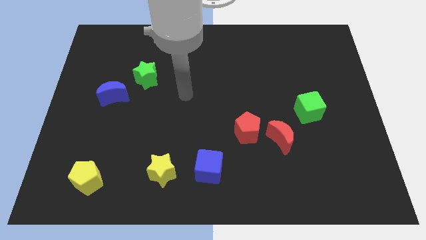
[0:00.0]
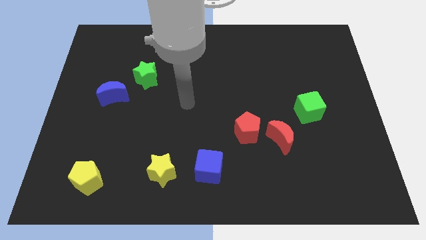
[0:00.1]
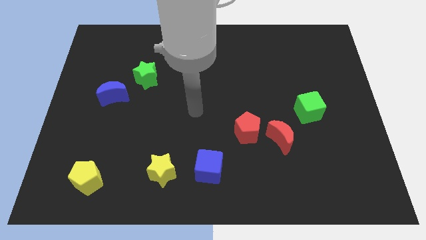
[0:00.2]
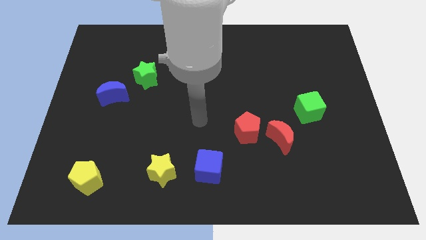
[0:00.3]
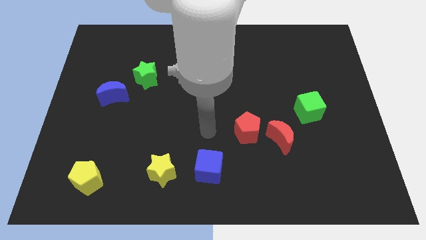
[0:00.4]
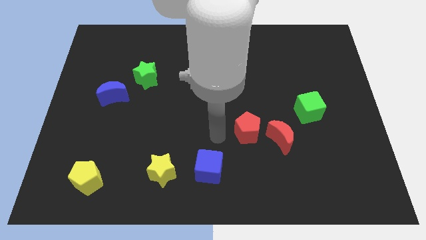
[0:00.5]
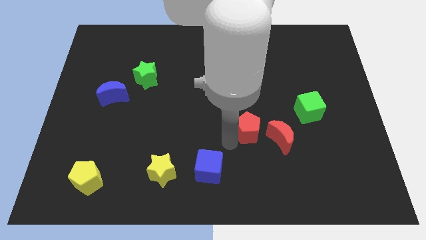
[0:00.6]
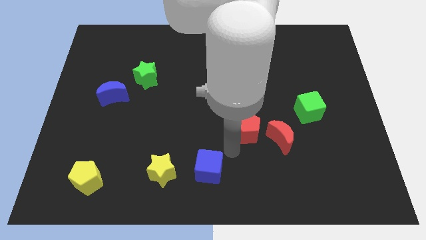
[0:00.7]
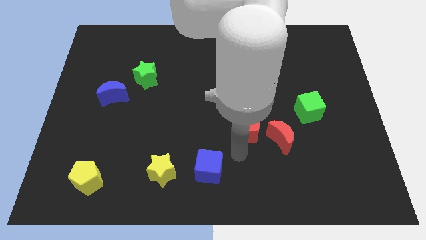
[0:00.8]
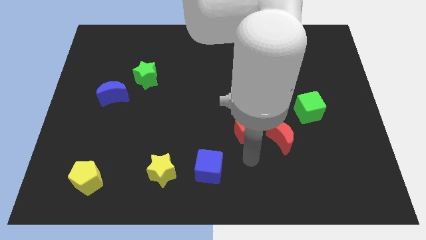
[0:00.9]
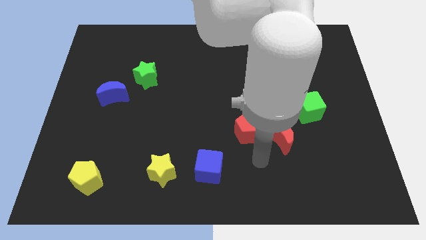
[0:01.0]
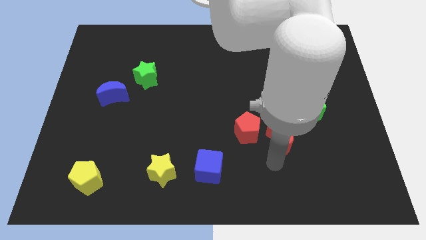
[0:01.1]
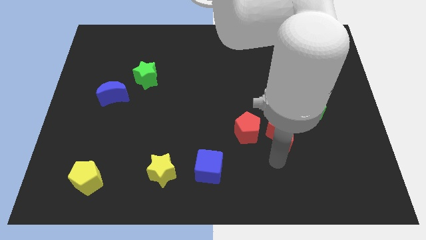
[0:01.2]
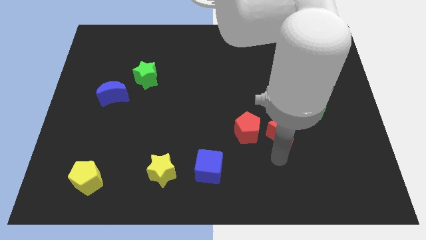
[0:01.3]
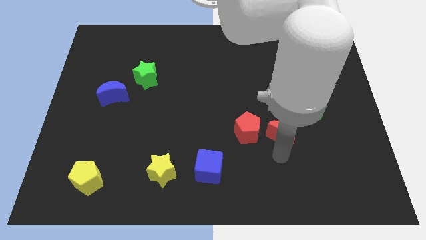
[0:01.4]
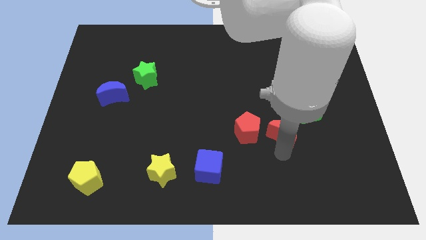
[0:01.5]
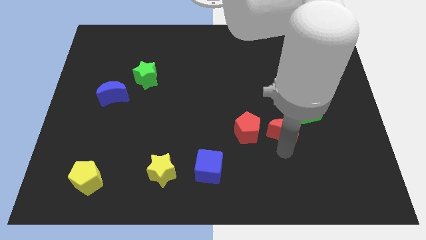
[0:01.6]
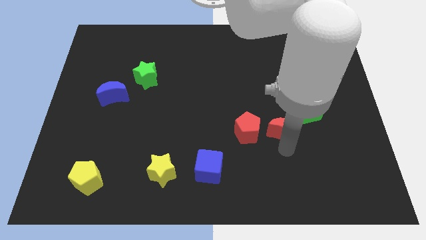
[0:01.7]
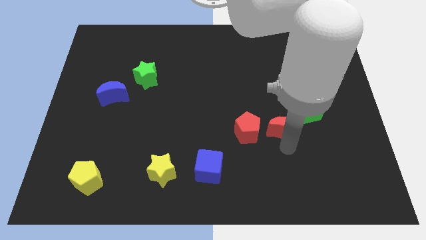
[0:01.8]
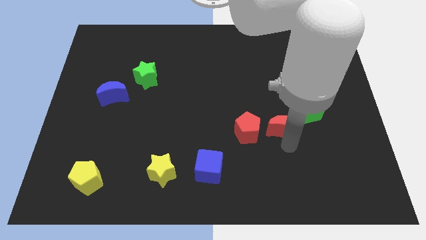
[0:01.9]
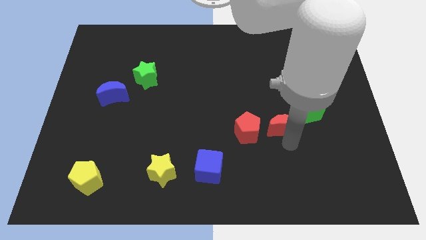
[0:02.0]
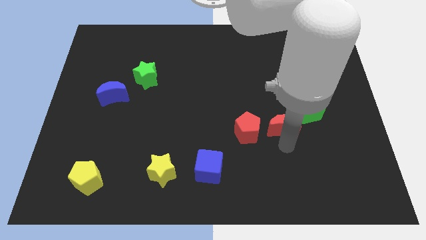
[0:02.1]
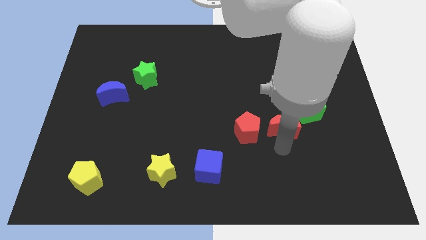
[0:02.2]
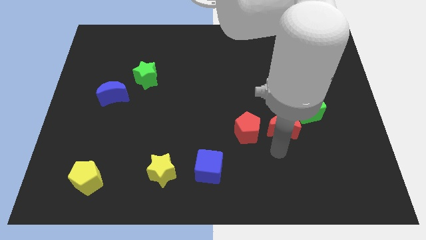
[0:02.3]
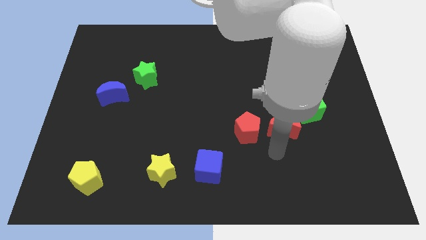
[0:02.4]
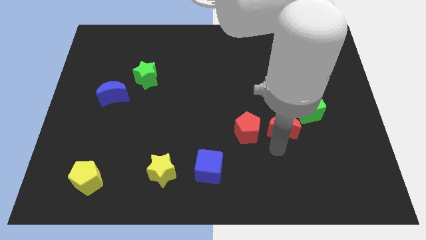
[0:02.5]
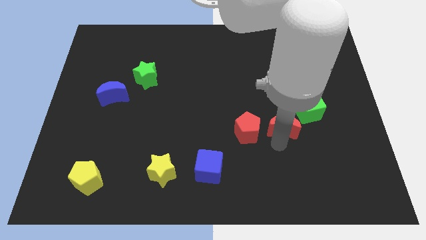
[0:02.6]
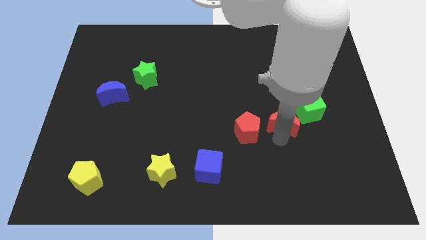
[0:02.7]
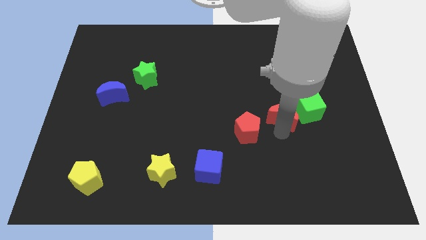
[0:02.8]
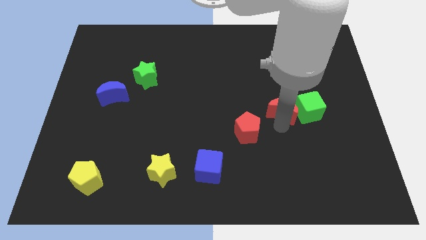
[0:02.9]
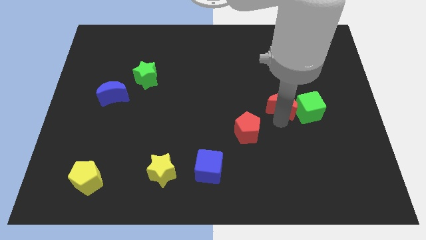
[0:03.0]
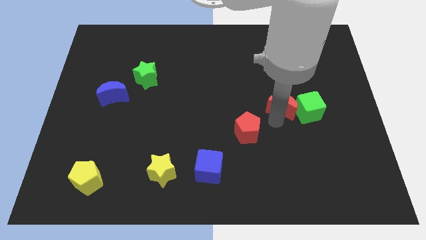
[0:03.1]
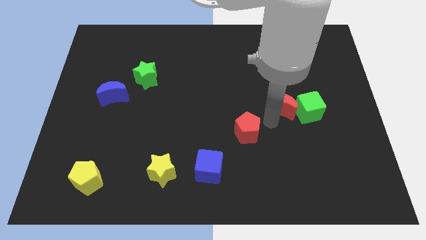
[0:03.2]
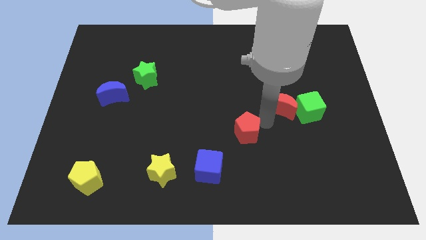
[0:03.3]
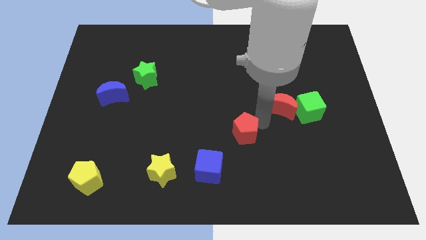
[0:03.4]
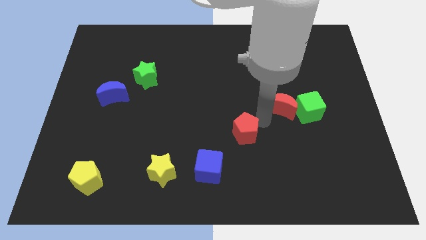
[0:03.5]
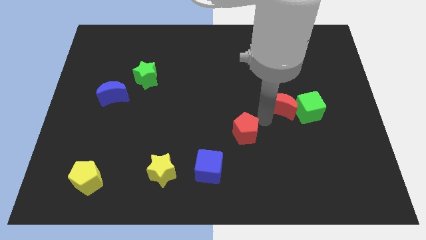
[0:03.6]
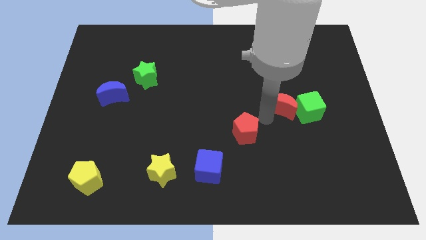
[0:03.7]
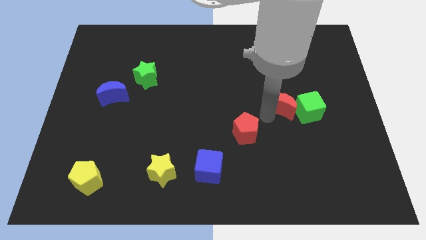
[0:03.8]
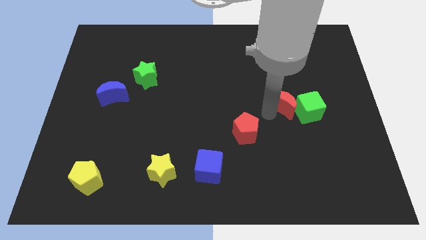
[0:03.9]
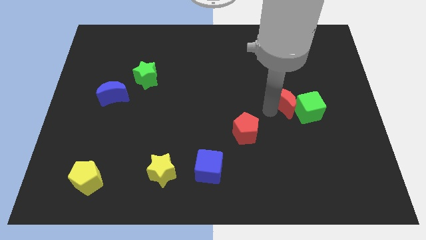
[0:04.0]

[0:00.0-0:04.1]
slightly move the red moon upwards and then to the right

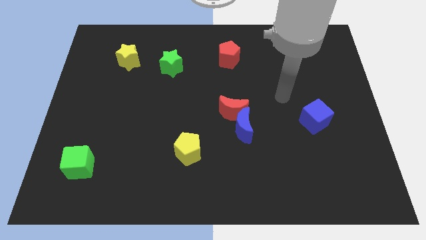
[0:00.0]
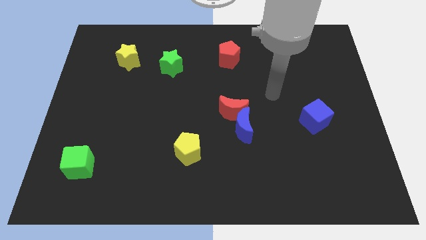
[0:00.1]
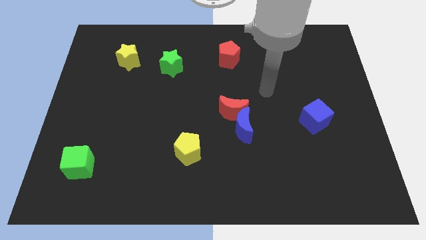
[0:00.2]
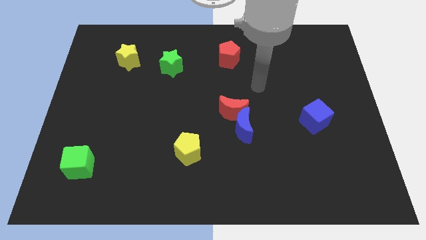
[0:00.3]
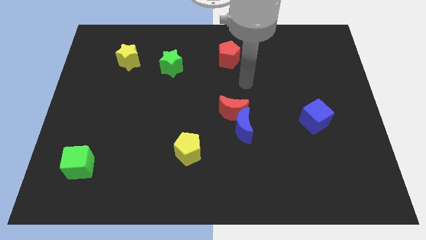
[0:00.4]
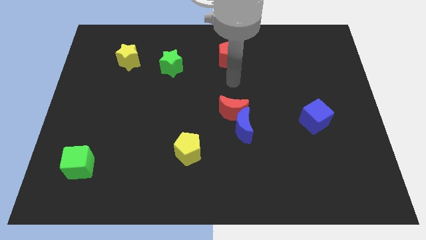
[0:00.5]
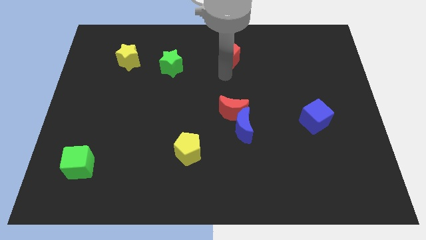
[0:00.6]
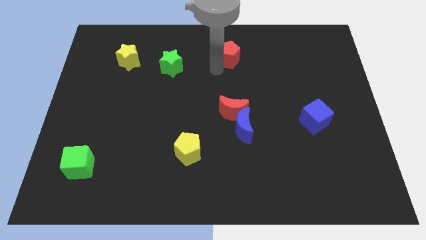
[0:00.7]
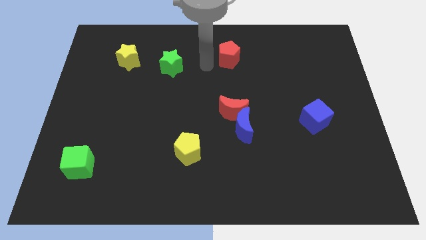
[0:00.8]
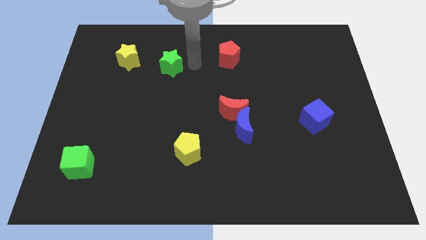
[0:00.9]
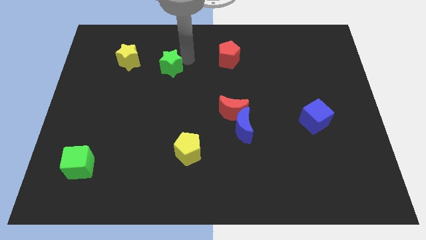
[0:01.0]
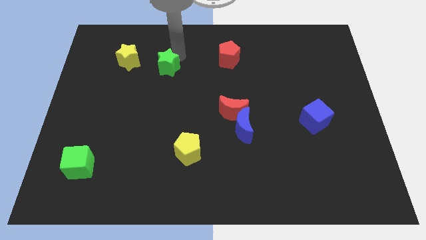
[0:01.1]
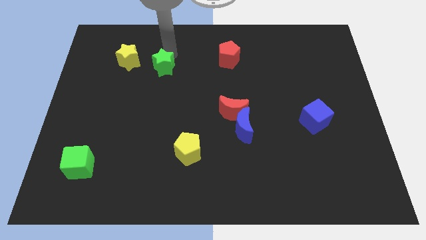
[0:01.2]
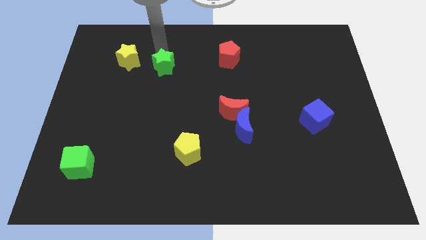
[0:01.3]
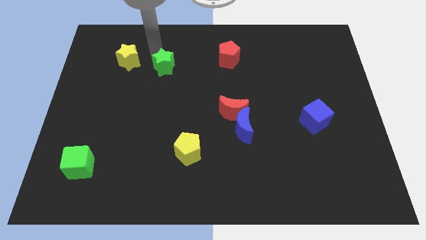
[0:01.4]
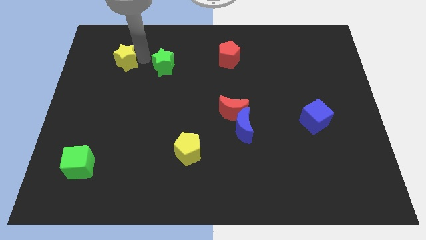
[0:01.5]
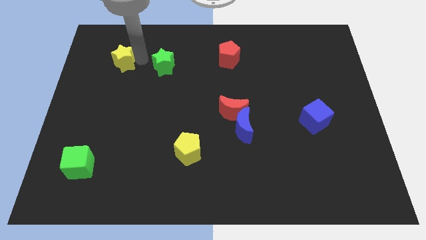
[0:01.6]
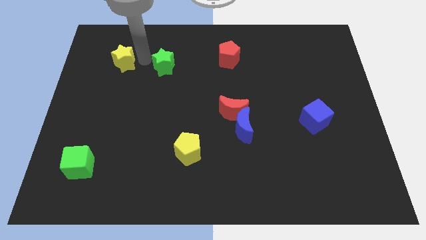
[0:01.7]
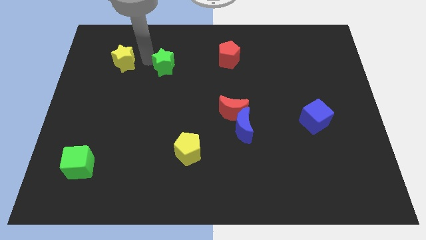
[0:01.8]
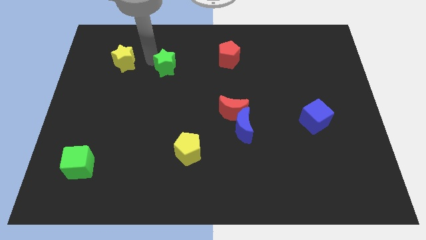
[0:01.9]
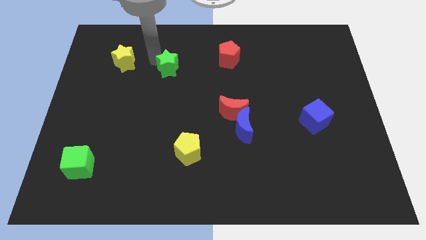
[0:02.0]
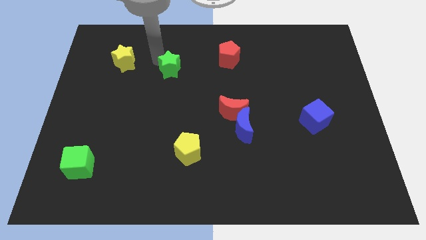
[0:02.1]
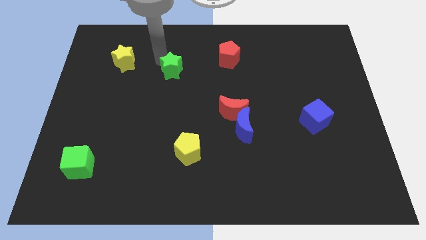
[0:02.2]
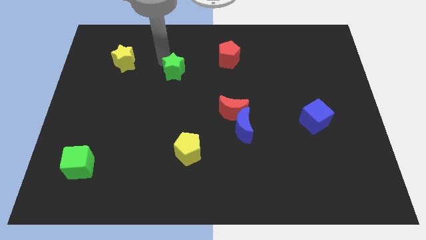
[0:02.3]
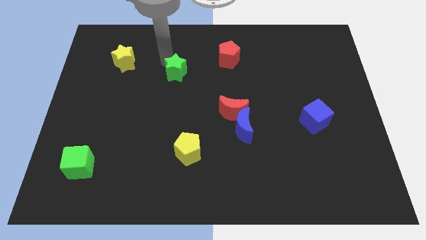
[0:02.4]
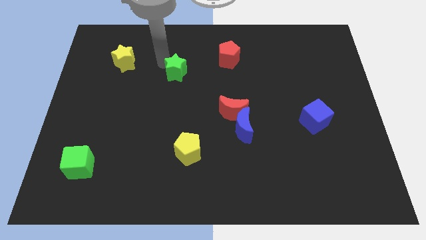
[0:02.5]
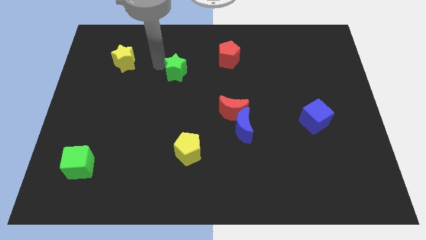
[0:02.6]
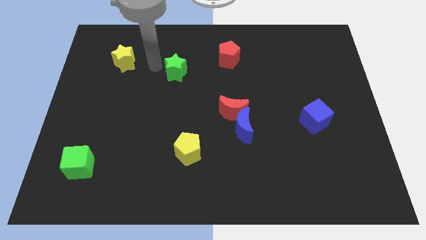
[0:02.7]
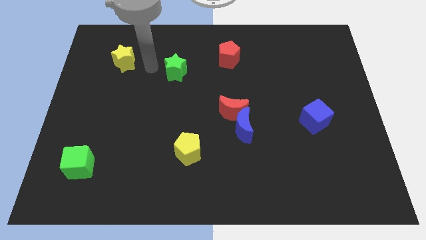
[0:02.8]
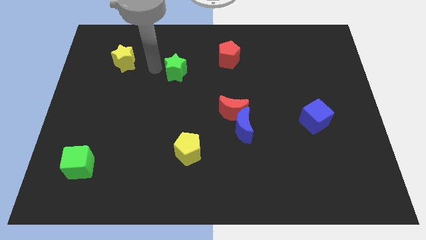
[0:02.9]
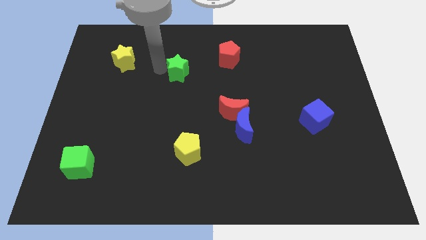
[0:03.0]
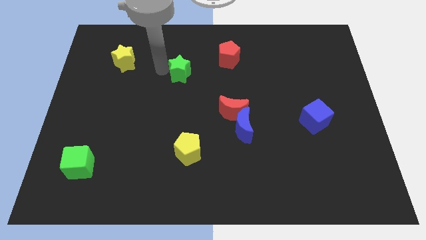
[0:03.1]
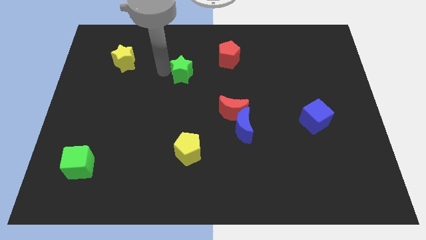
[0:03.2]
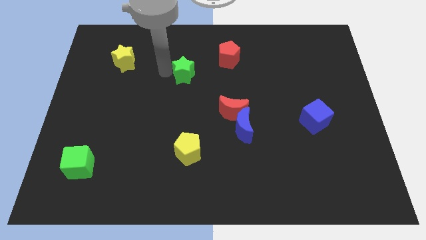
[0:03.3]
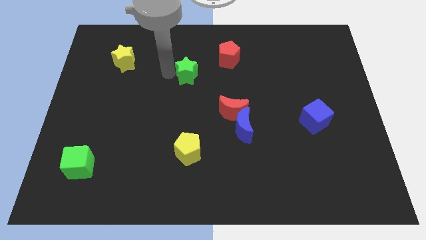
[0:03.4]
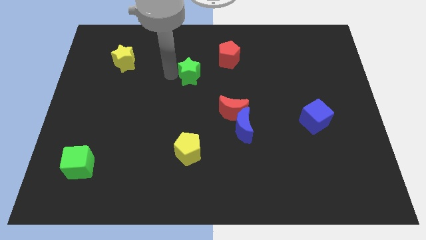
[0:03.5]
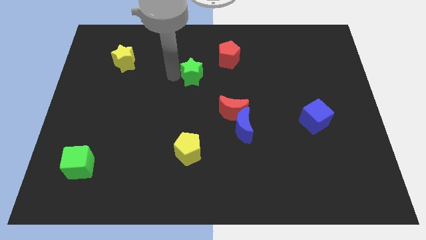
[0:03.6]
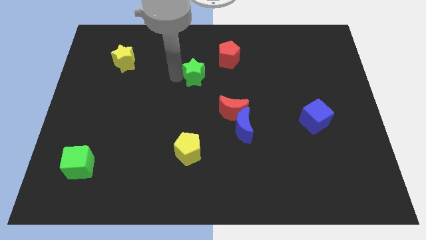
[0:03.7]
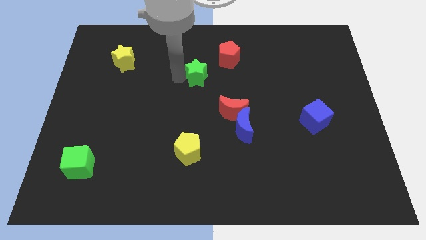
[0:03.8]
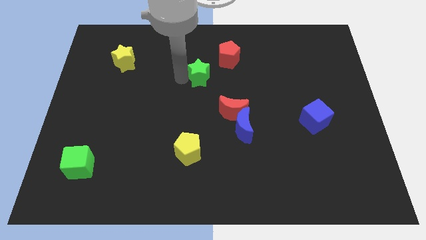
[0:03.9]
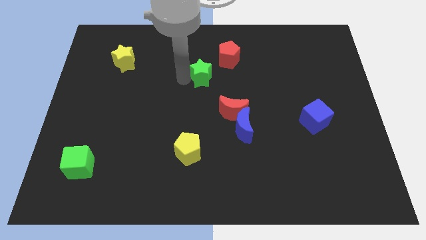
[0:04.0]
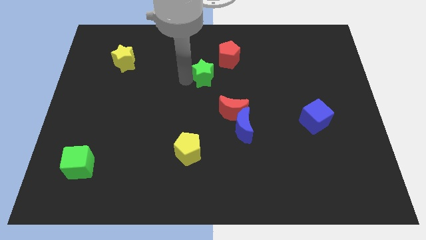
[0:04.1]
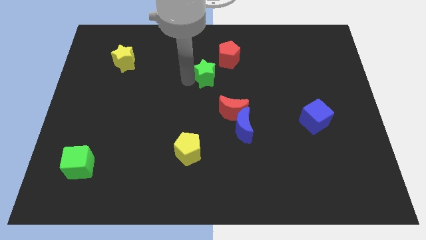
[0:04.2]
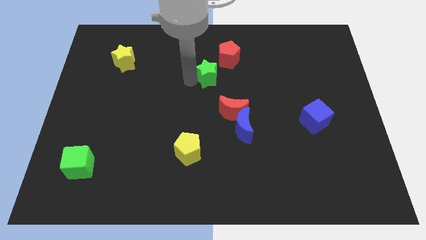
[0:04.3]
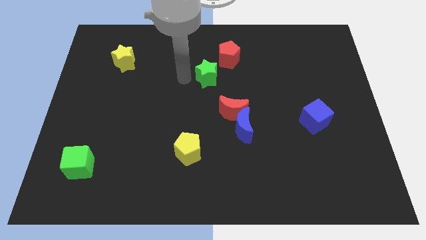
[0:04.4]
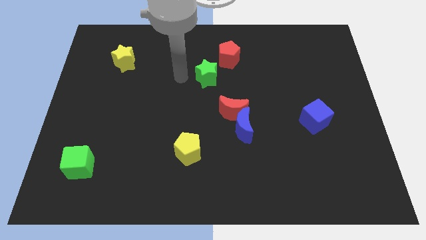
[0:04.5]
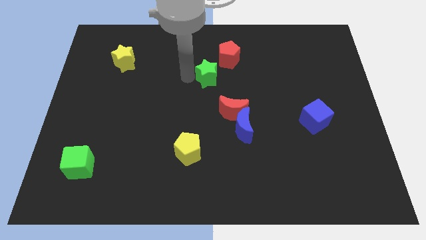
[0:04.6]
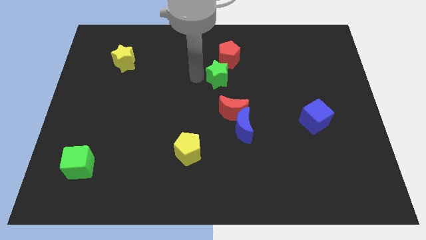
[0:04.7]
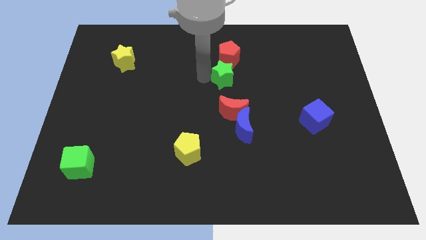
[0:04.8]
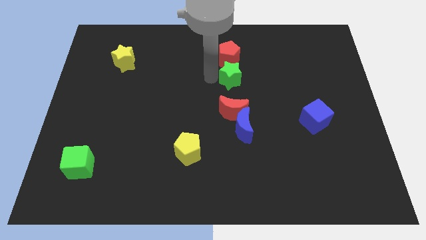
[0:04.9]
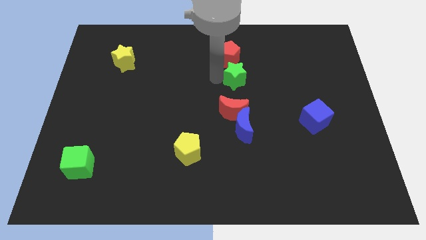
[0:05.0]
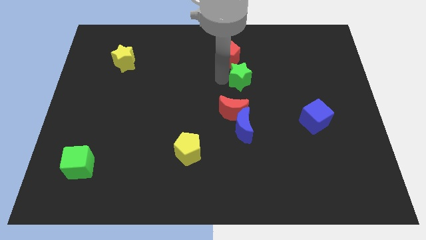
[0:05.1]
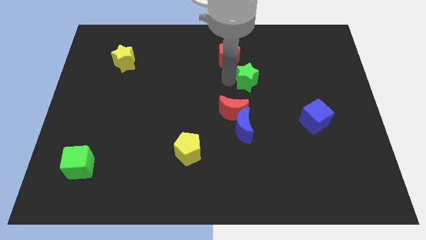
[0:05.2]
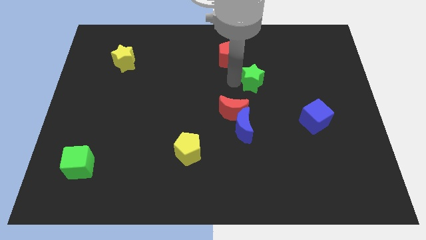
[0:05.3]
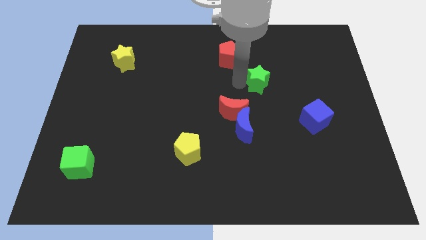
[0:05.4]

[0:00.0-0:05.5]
slide the green star right
